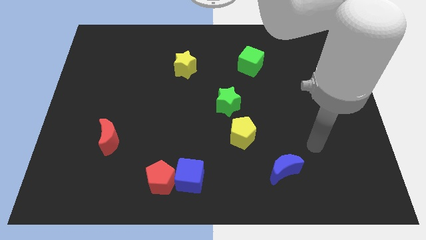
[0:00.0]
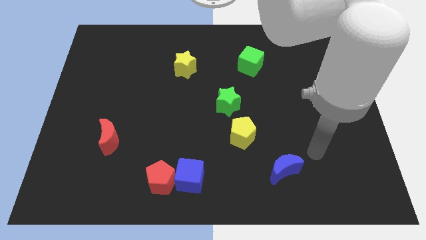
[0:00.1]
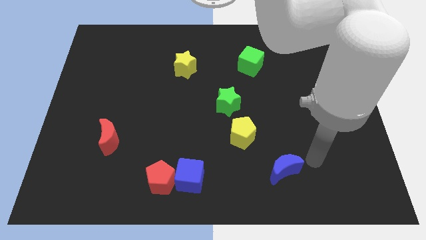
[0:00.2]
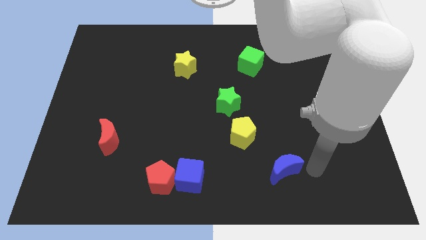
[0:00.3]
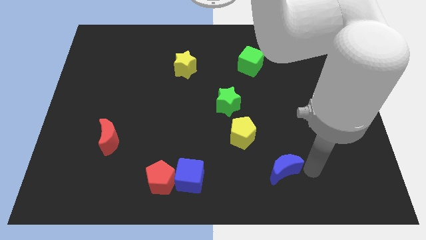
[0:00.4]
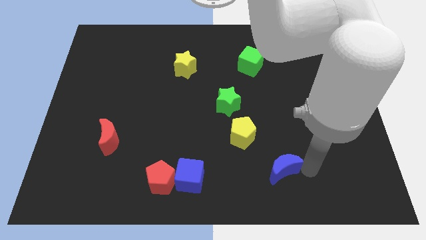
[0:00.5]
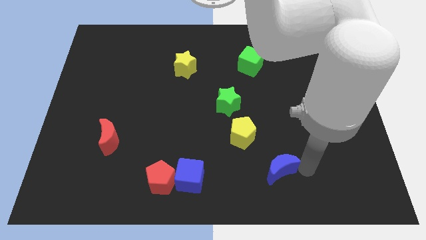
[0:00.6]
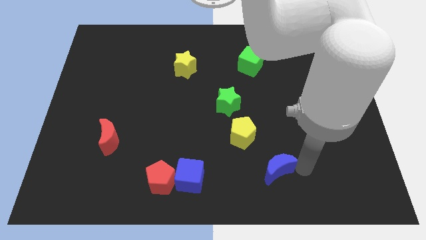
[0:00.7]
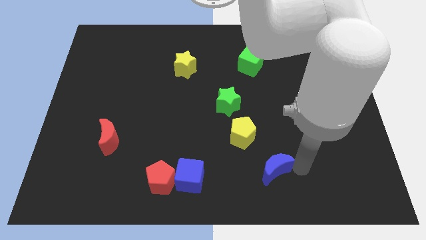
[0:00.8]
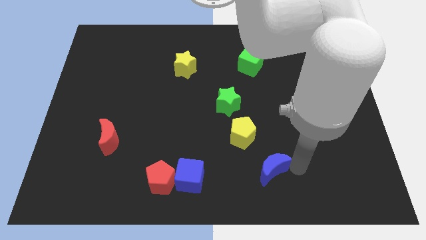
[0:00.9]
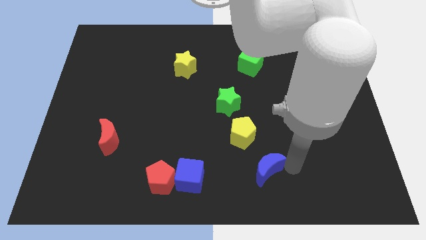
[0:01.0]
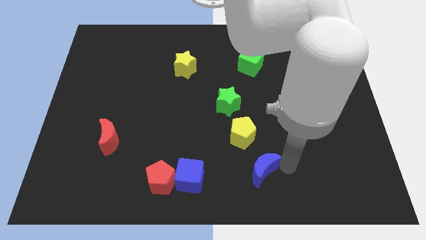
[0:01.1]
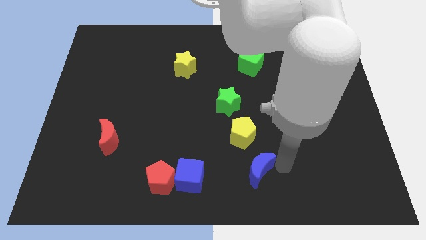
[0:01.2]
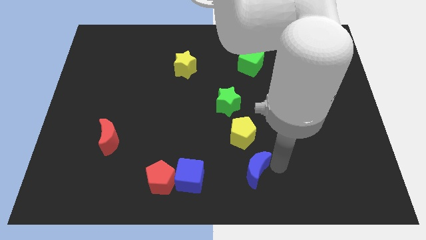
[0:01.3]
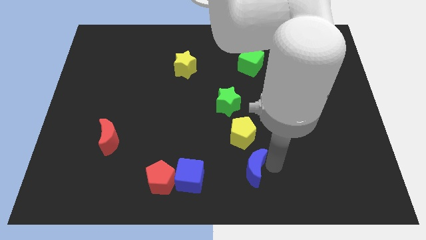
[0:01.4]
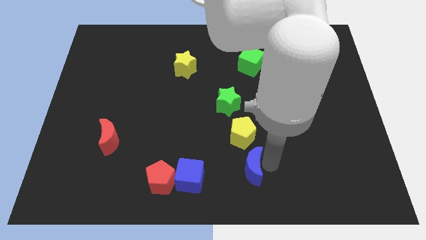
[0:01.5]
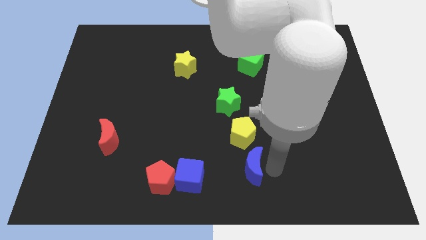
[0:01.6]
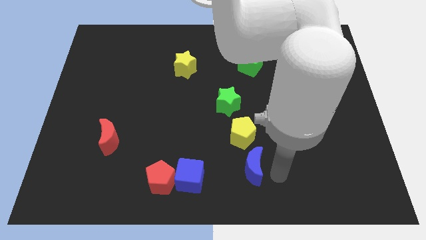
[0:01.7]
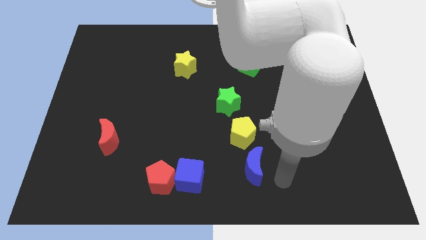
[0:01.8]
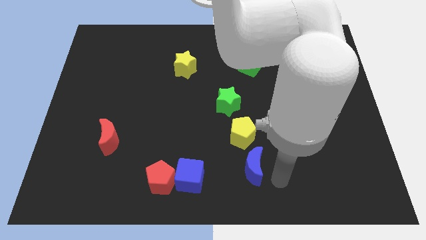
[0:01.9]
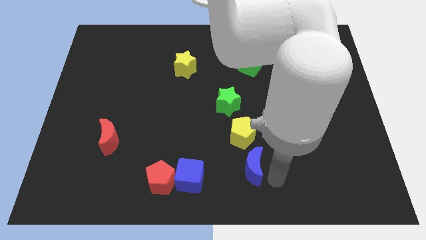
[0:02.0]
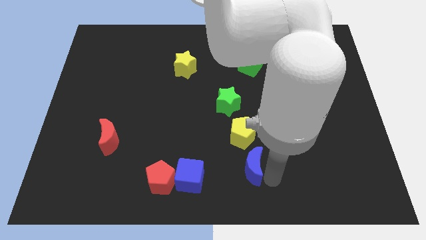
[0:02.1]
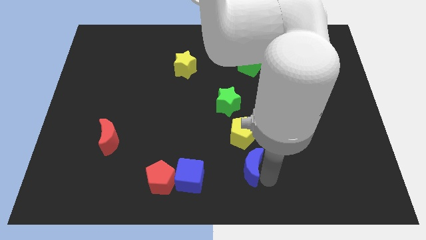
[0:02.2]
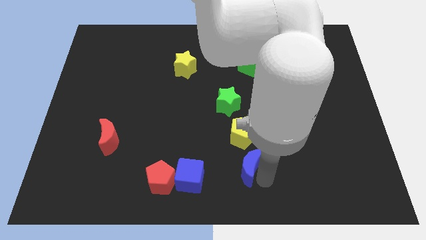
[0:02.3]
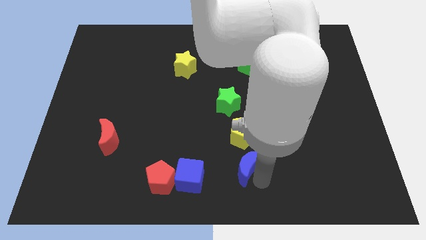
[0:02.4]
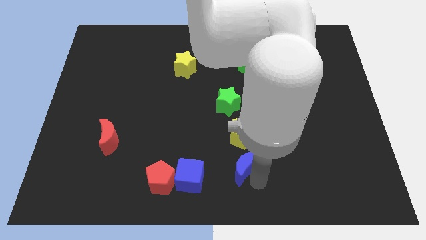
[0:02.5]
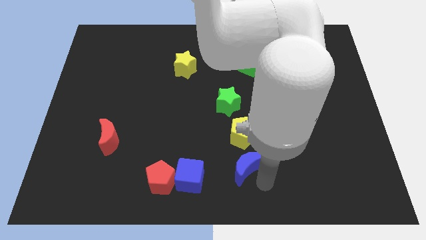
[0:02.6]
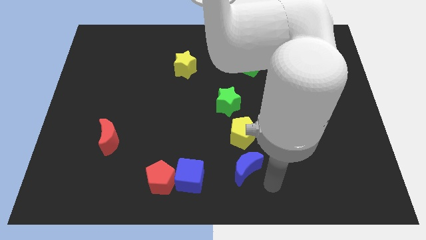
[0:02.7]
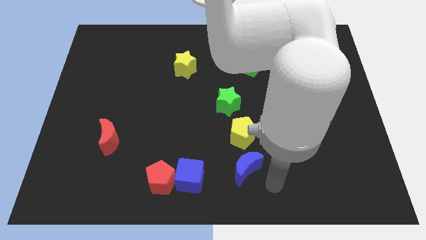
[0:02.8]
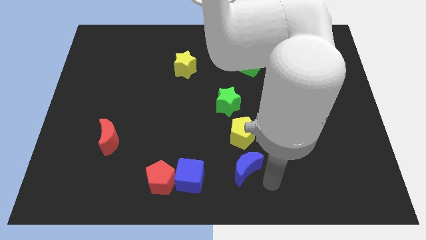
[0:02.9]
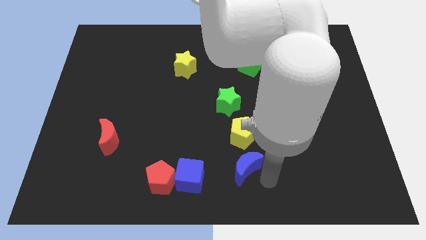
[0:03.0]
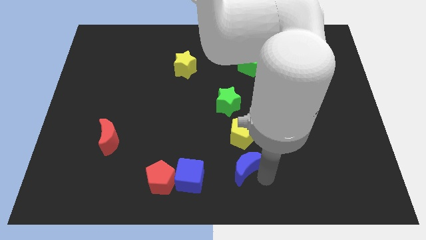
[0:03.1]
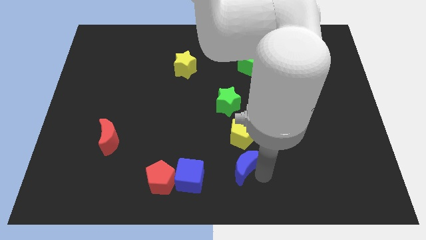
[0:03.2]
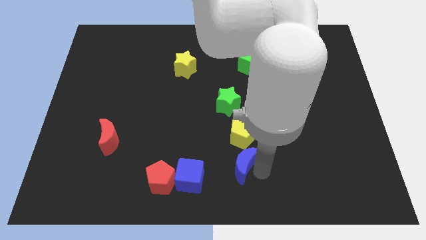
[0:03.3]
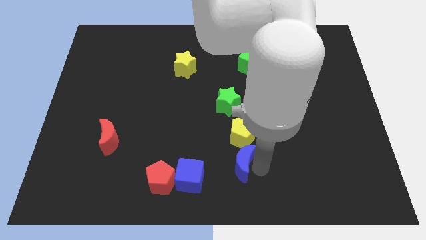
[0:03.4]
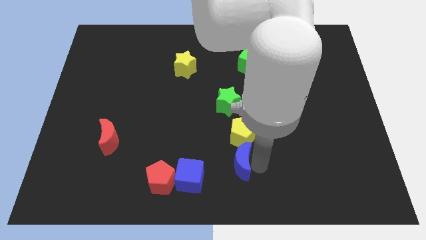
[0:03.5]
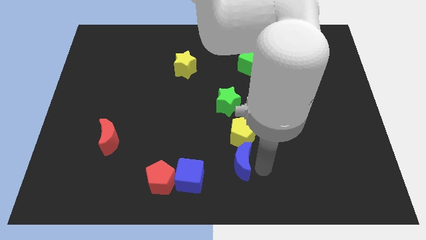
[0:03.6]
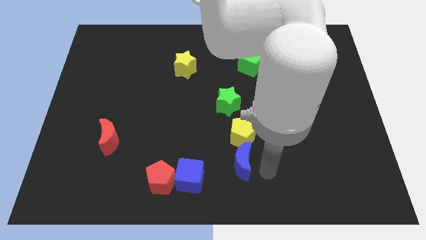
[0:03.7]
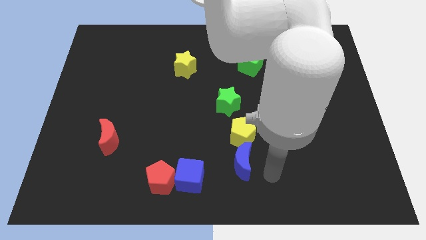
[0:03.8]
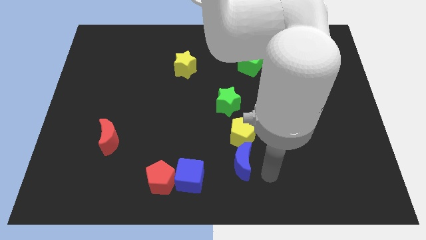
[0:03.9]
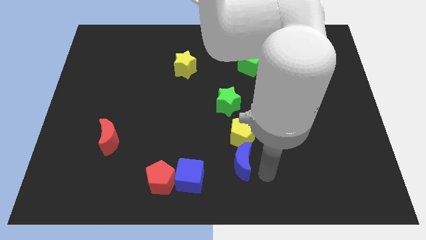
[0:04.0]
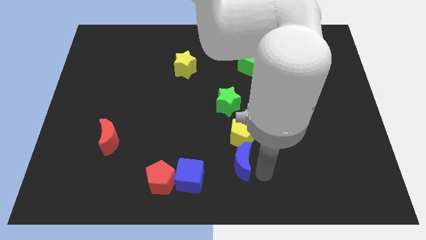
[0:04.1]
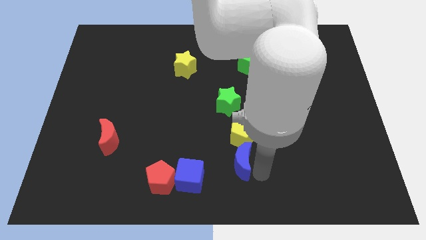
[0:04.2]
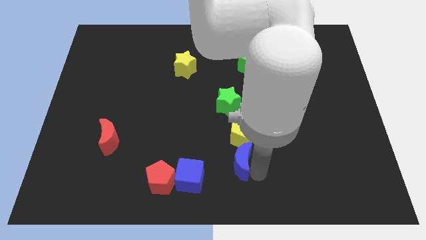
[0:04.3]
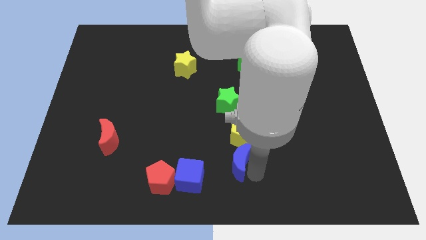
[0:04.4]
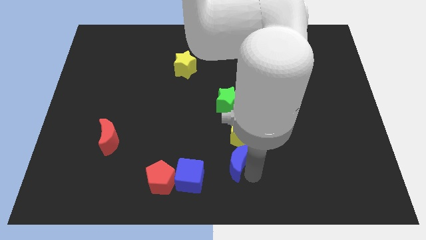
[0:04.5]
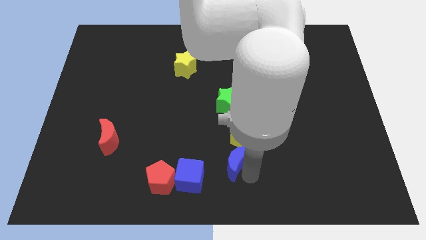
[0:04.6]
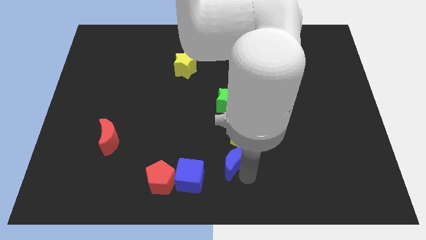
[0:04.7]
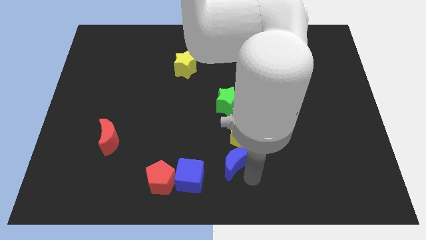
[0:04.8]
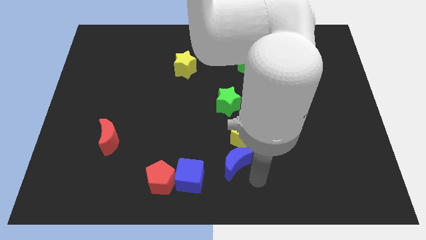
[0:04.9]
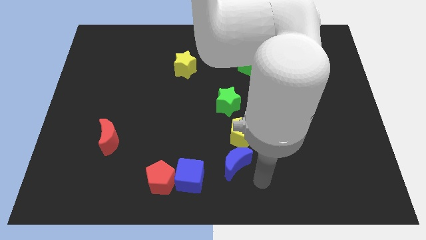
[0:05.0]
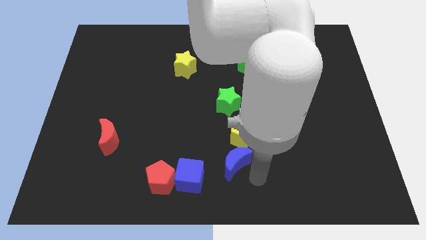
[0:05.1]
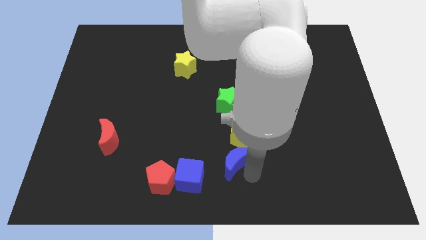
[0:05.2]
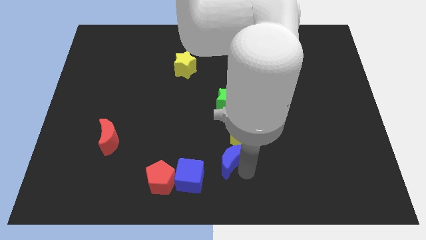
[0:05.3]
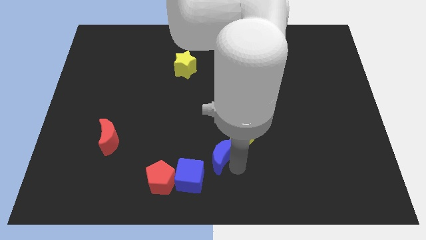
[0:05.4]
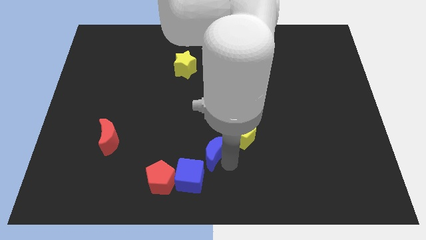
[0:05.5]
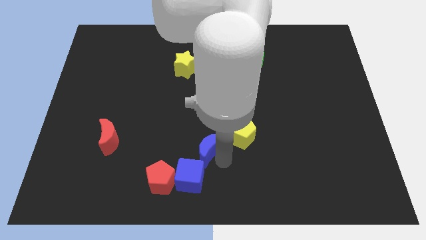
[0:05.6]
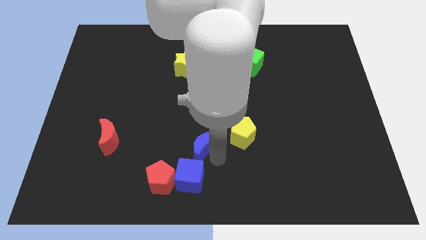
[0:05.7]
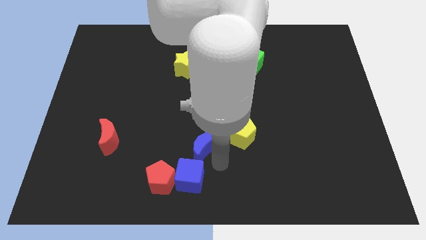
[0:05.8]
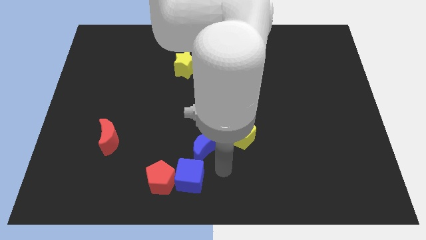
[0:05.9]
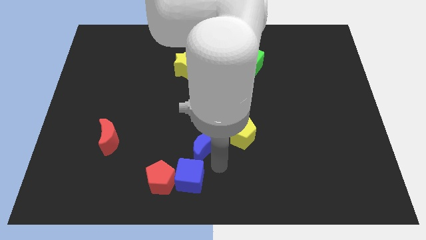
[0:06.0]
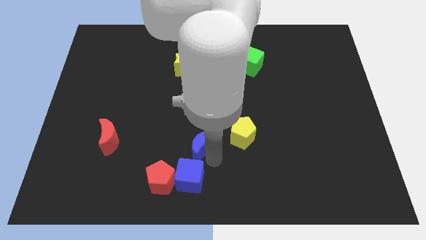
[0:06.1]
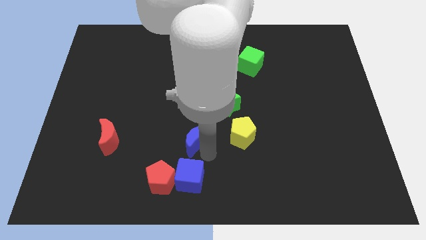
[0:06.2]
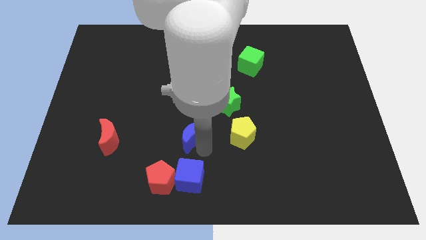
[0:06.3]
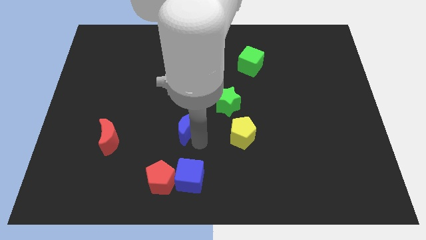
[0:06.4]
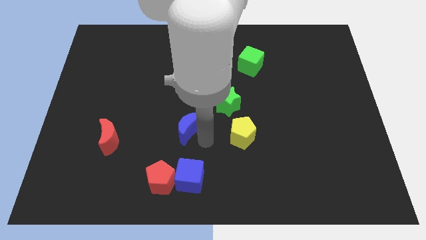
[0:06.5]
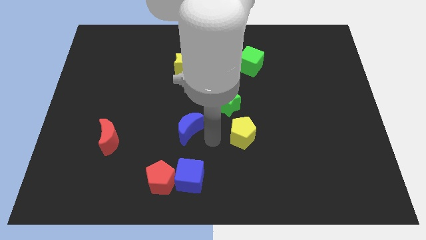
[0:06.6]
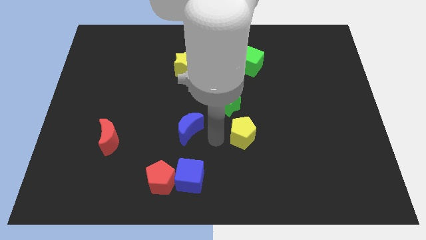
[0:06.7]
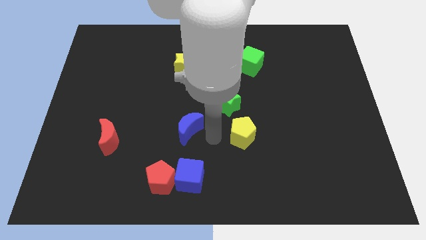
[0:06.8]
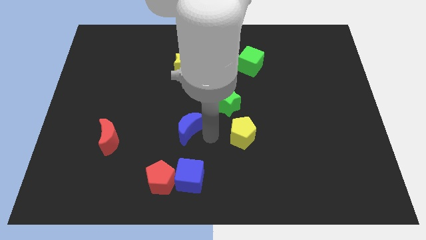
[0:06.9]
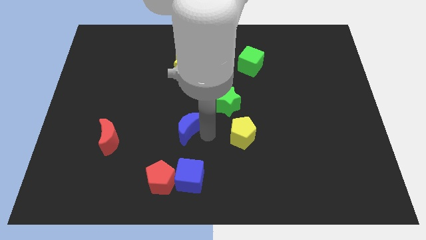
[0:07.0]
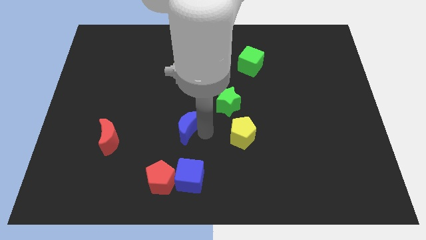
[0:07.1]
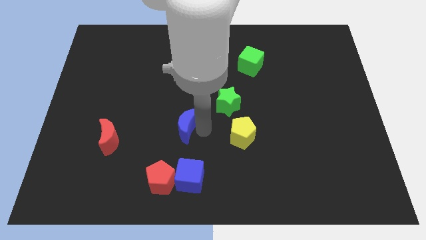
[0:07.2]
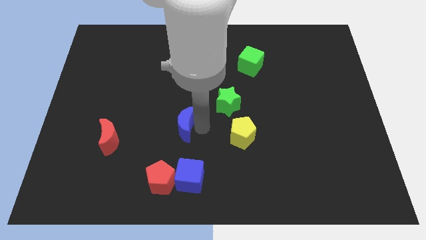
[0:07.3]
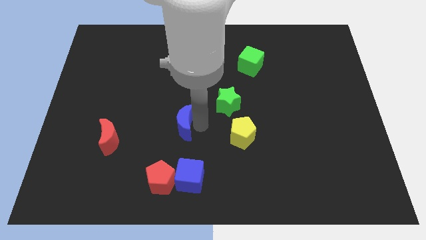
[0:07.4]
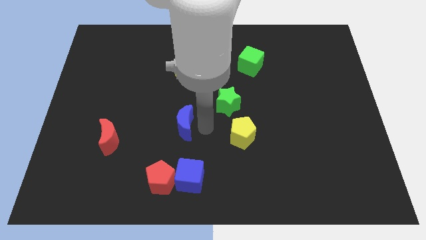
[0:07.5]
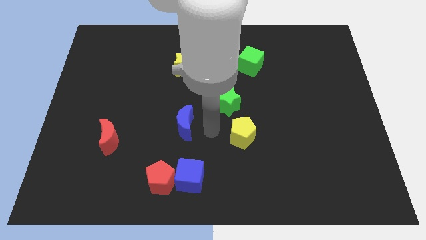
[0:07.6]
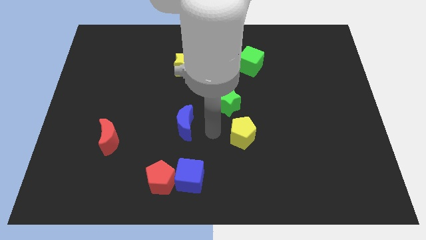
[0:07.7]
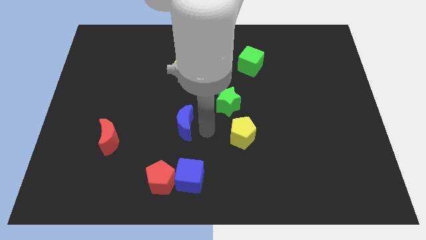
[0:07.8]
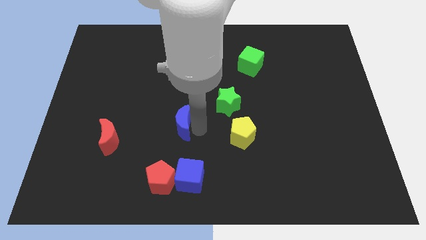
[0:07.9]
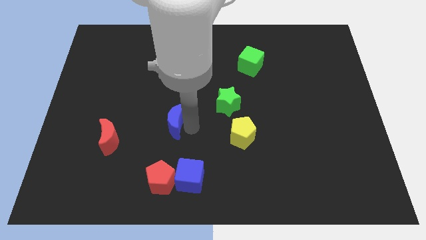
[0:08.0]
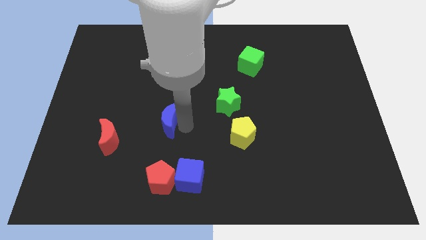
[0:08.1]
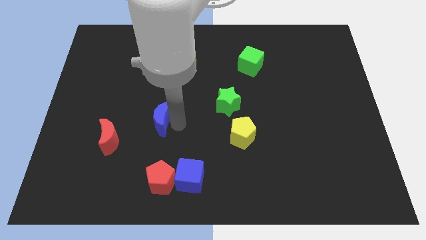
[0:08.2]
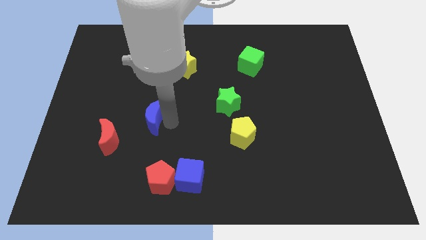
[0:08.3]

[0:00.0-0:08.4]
put the blue moon diagonally up and to the right of the red moon
